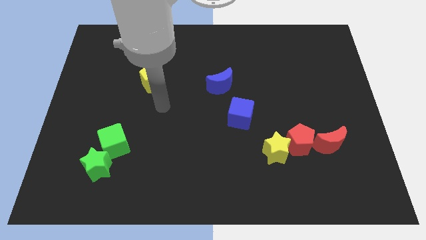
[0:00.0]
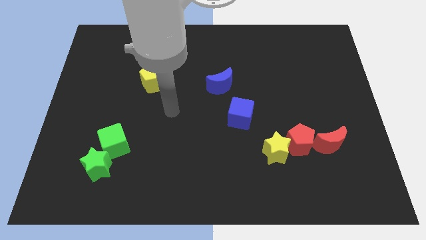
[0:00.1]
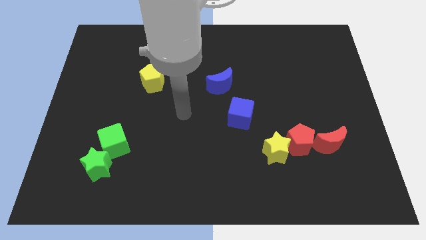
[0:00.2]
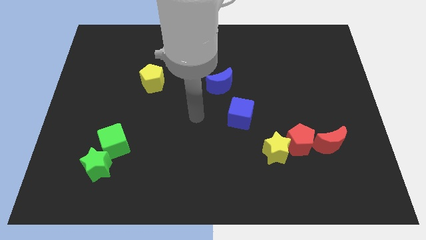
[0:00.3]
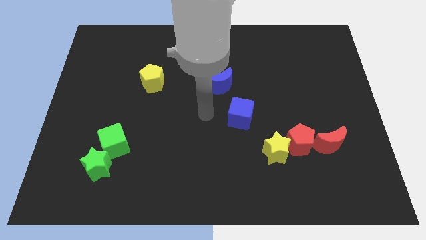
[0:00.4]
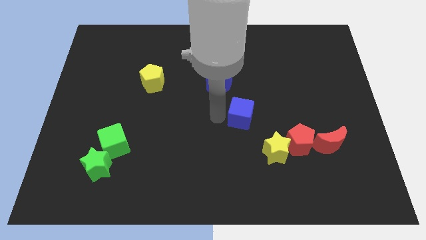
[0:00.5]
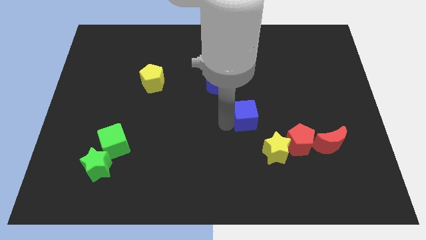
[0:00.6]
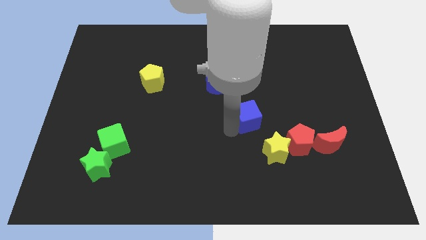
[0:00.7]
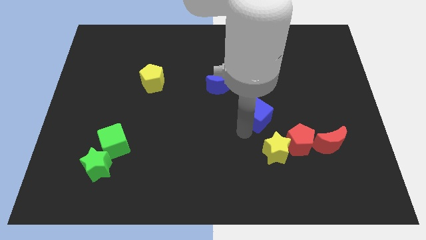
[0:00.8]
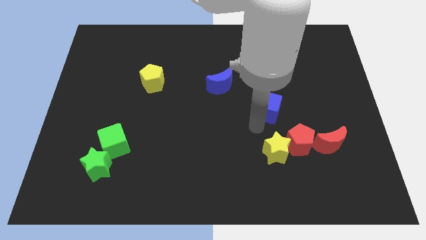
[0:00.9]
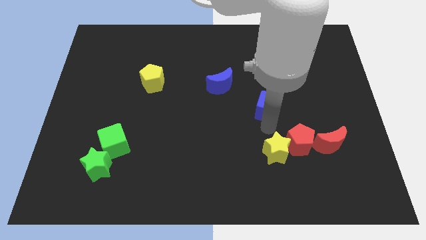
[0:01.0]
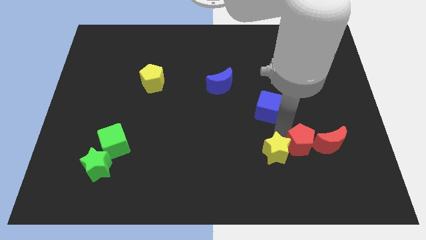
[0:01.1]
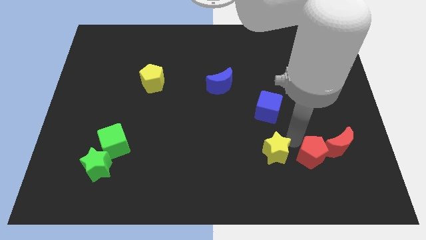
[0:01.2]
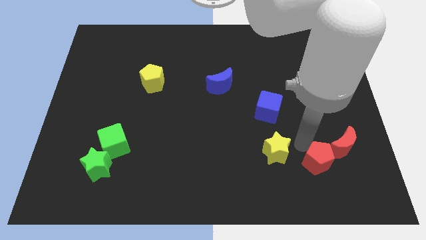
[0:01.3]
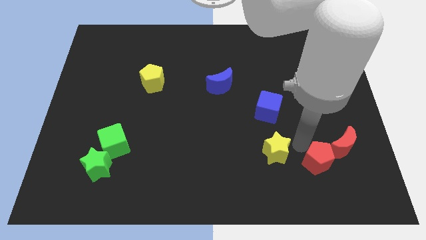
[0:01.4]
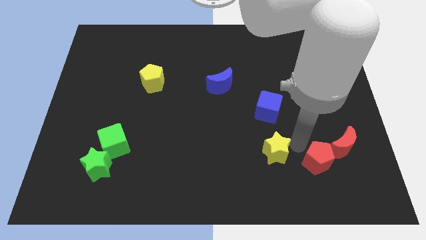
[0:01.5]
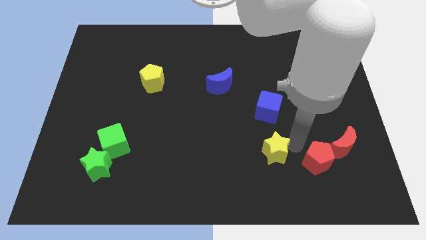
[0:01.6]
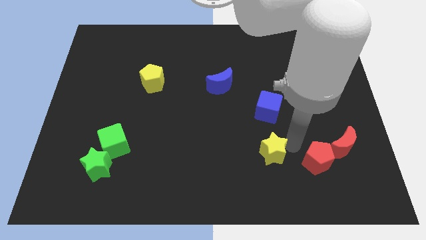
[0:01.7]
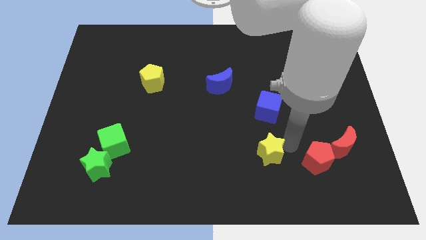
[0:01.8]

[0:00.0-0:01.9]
separate the yellow star from the red pentagon

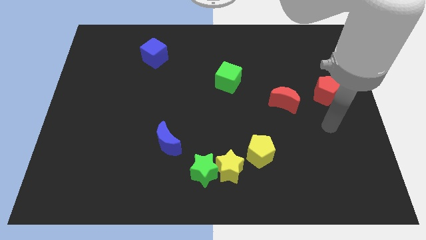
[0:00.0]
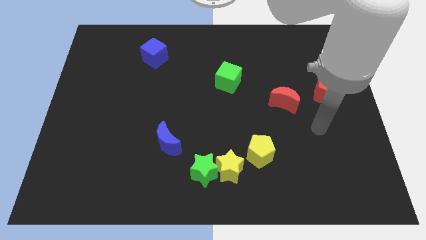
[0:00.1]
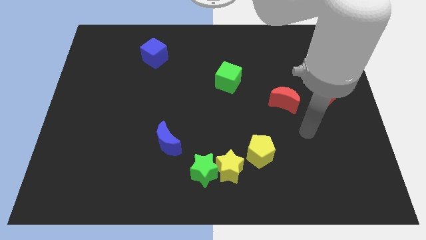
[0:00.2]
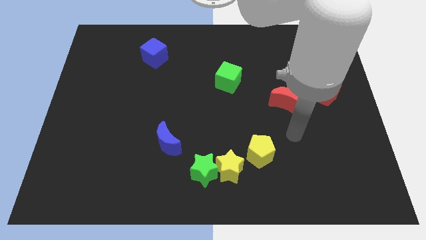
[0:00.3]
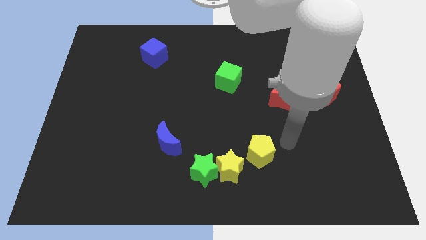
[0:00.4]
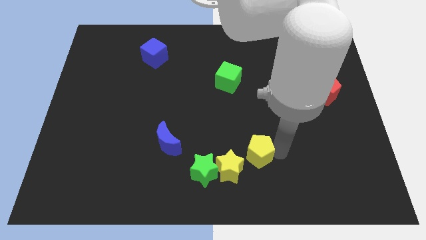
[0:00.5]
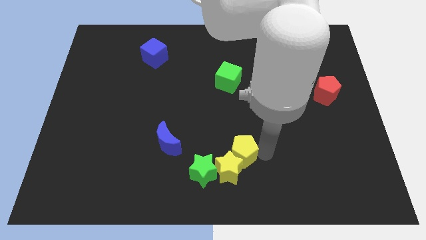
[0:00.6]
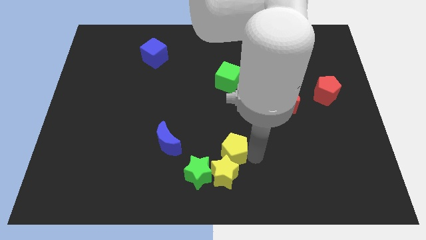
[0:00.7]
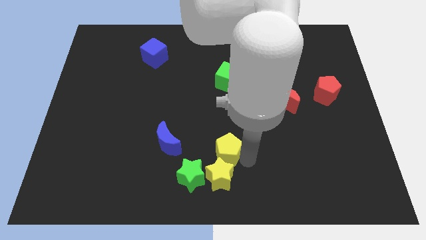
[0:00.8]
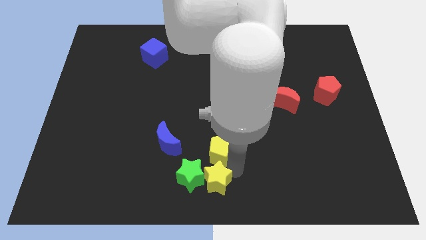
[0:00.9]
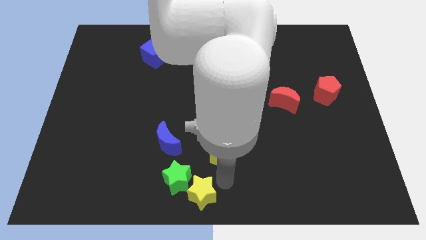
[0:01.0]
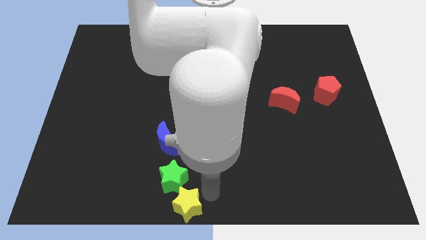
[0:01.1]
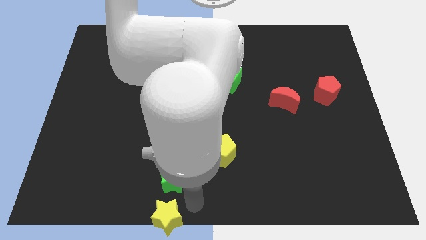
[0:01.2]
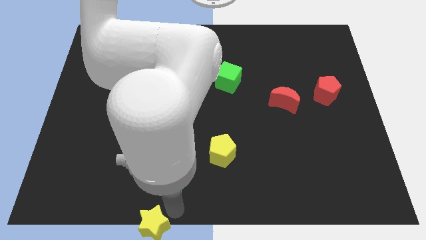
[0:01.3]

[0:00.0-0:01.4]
pull the green star apart from the yellow star

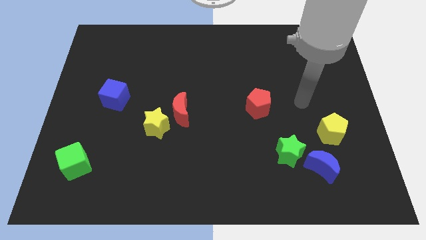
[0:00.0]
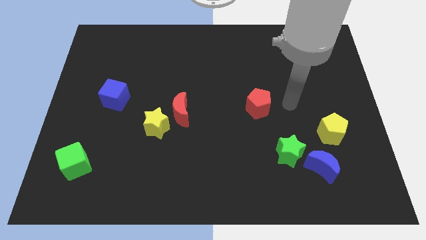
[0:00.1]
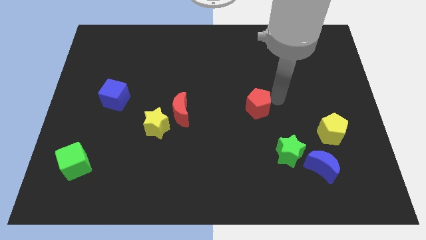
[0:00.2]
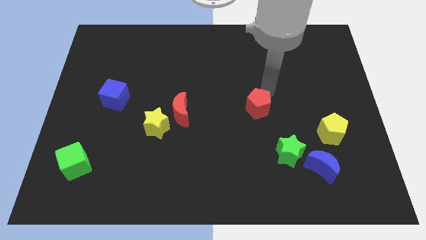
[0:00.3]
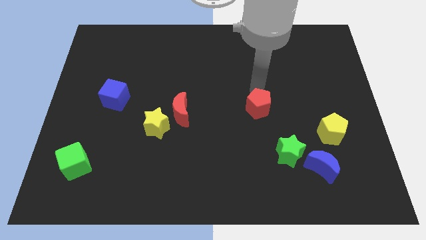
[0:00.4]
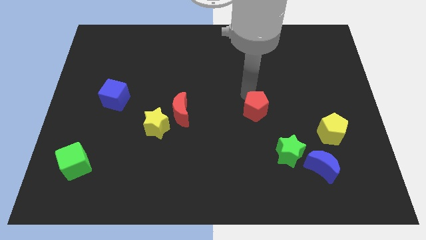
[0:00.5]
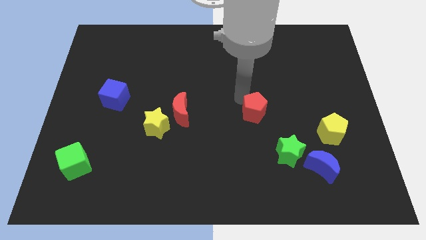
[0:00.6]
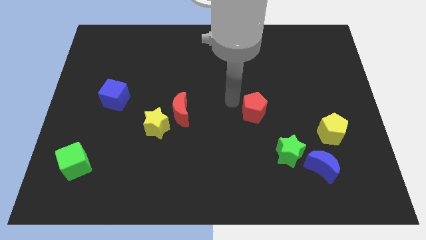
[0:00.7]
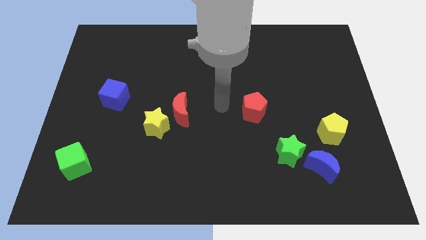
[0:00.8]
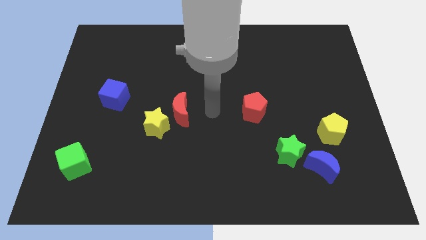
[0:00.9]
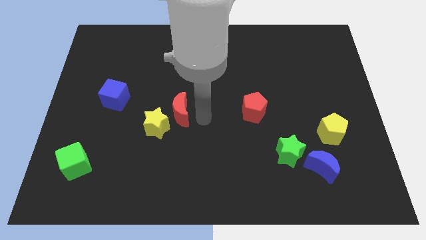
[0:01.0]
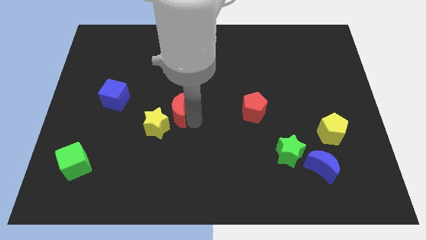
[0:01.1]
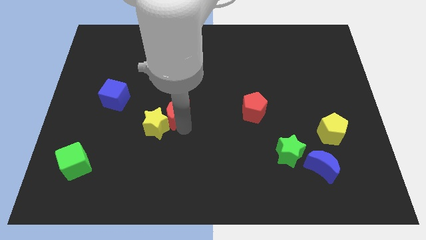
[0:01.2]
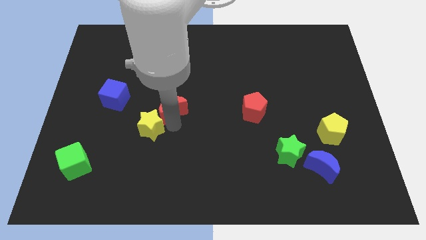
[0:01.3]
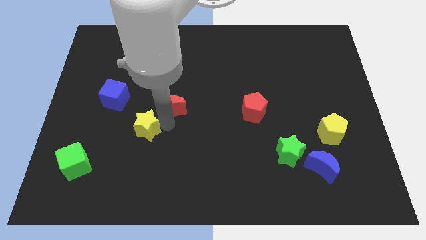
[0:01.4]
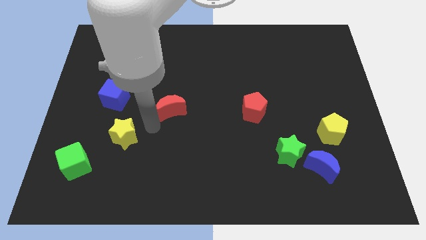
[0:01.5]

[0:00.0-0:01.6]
pull the red moon apart from the yellow star

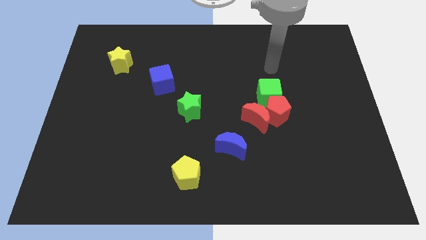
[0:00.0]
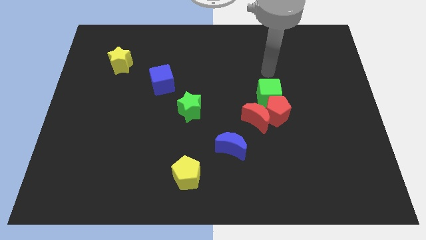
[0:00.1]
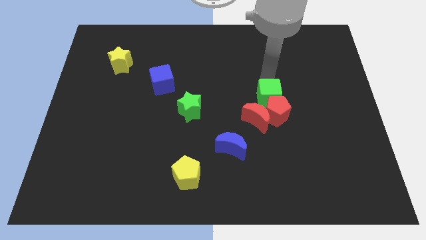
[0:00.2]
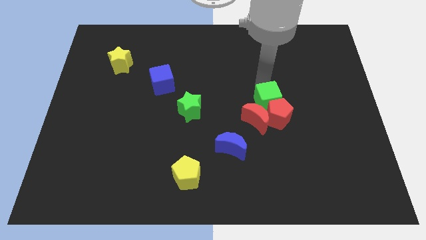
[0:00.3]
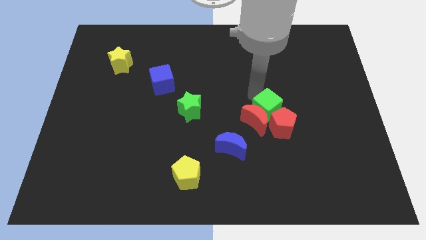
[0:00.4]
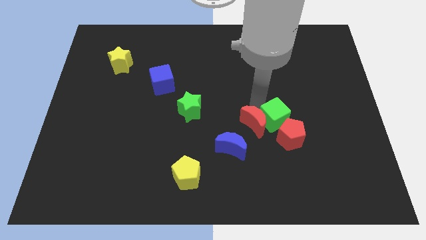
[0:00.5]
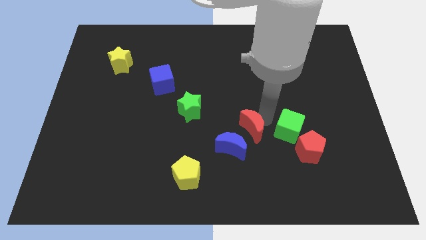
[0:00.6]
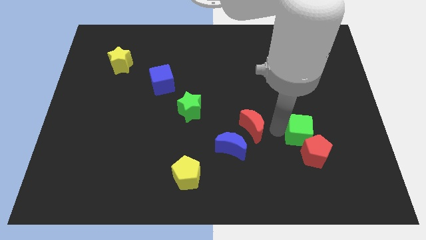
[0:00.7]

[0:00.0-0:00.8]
separate the red pentagon from the red moon and green cube

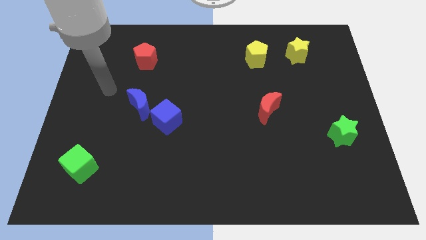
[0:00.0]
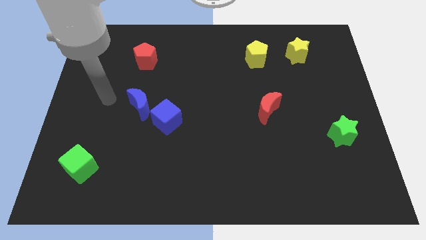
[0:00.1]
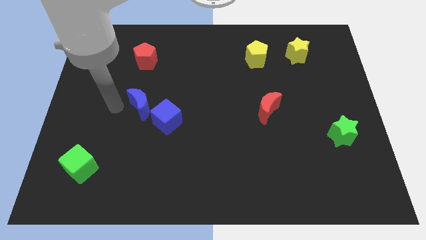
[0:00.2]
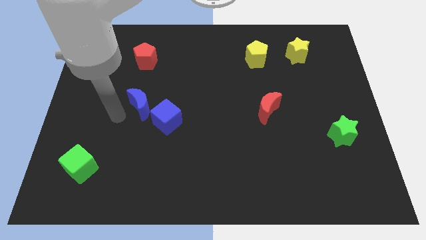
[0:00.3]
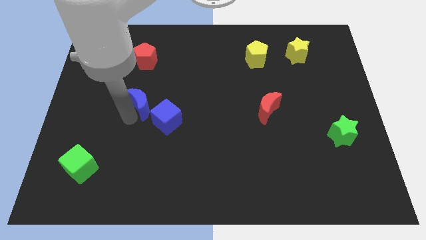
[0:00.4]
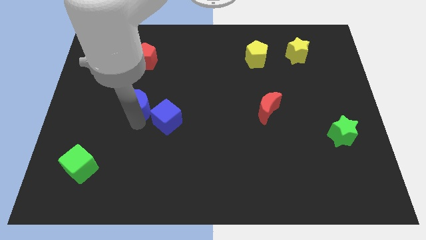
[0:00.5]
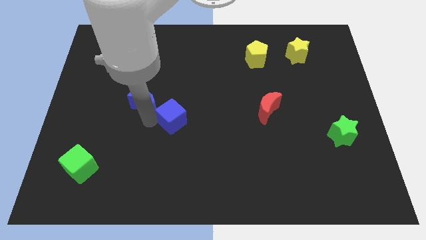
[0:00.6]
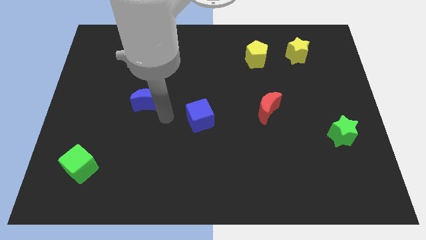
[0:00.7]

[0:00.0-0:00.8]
separate the blue moon from the blue cube

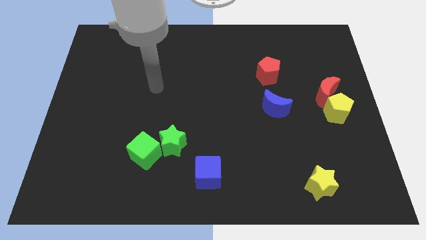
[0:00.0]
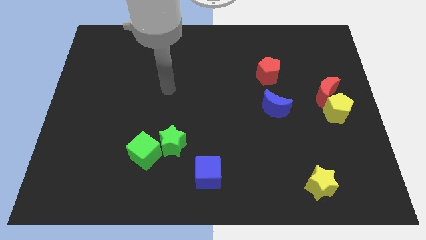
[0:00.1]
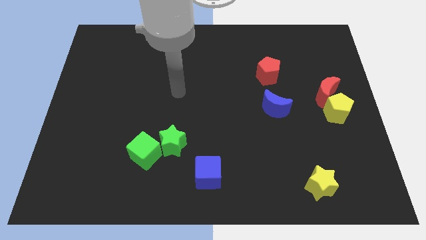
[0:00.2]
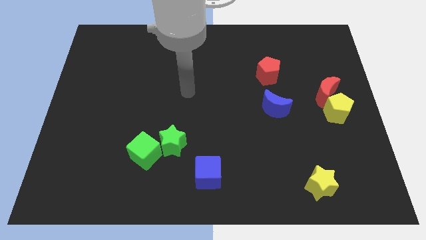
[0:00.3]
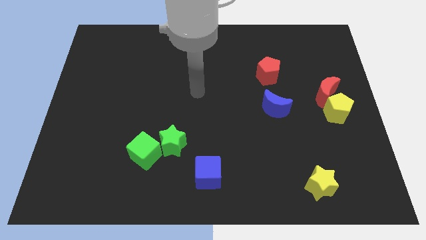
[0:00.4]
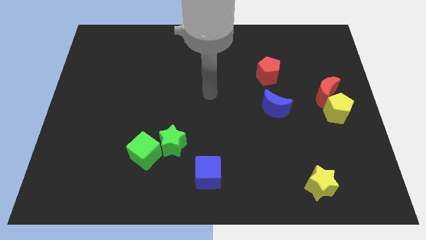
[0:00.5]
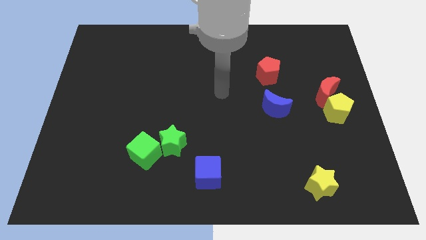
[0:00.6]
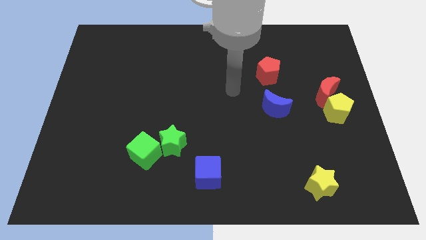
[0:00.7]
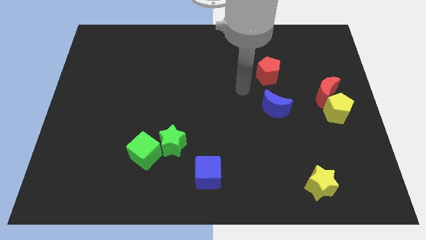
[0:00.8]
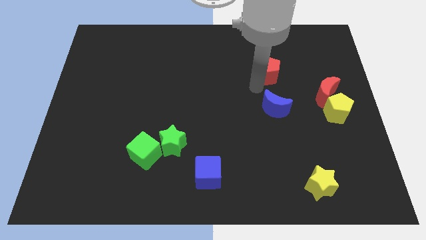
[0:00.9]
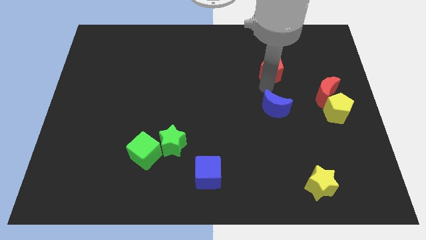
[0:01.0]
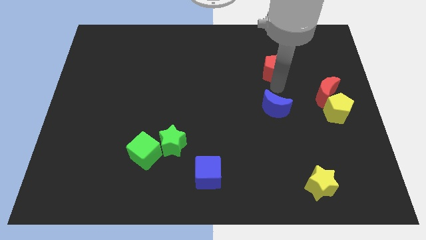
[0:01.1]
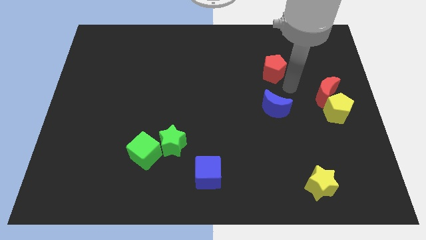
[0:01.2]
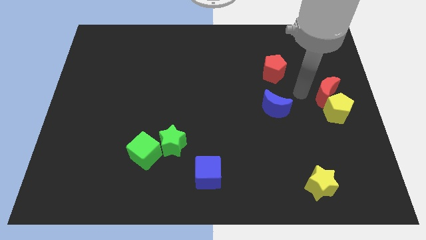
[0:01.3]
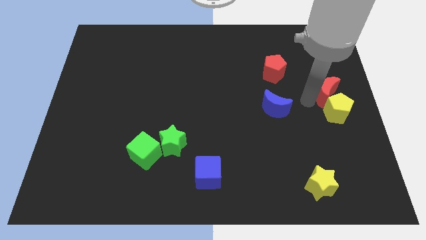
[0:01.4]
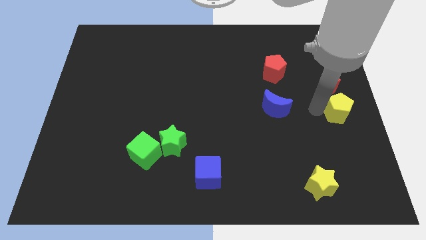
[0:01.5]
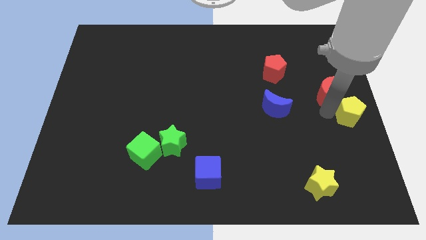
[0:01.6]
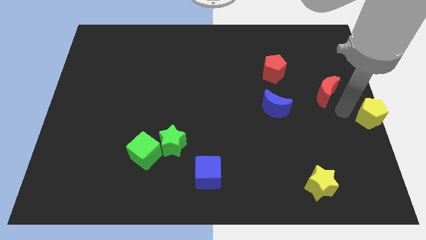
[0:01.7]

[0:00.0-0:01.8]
move the red moon away from the yellow pentagon

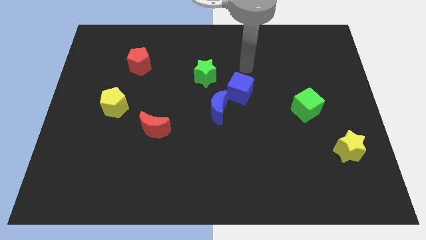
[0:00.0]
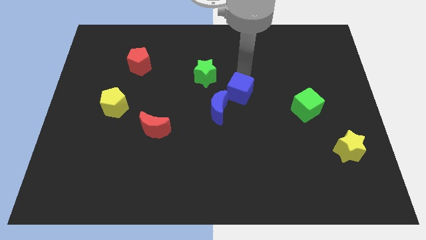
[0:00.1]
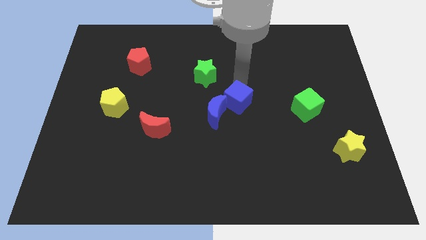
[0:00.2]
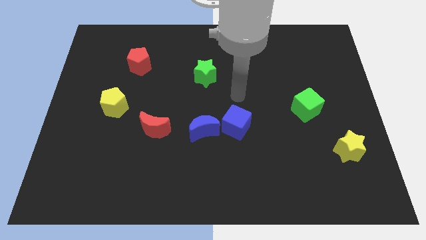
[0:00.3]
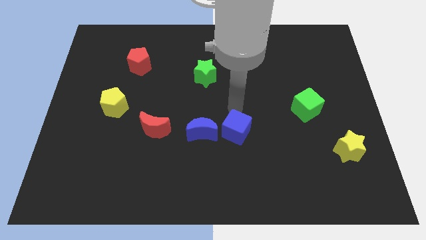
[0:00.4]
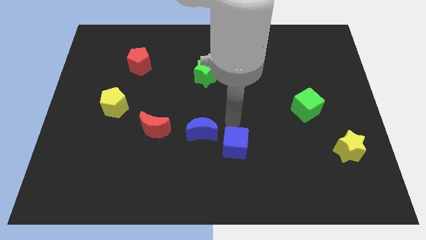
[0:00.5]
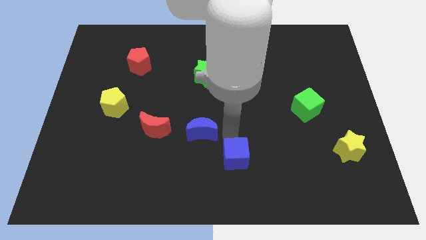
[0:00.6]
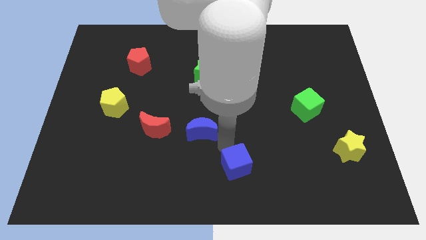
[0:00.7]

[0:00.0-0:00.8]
move the blue moon away from the blue cube
